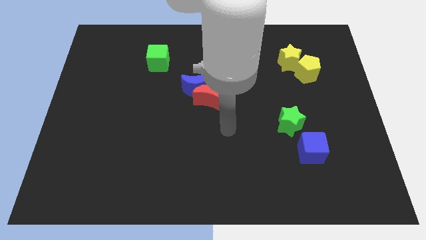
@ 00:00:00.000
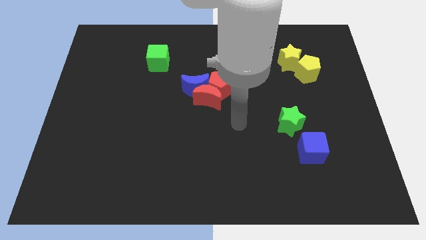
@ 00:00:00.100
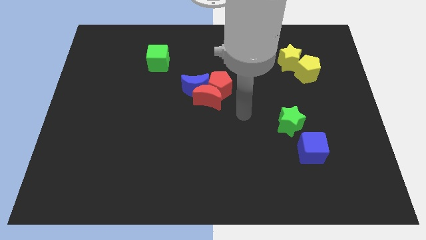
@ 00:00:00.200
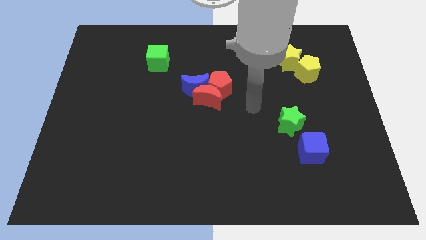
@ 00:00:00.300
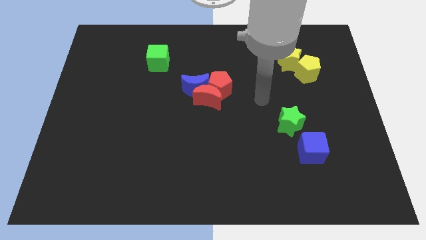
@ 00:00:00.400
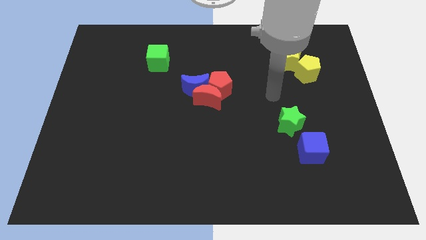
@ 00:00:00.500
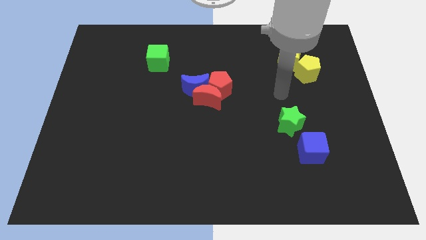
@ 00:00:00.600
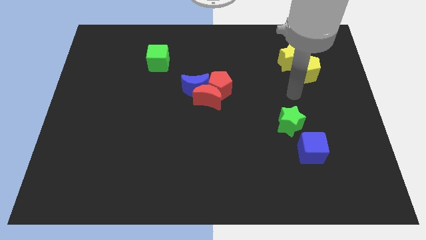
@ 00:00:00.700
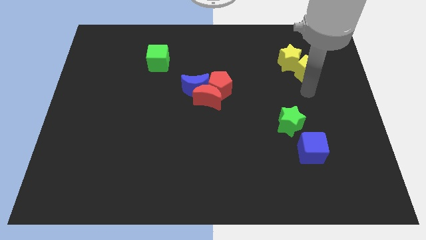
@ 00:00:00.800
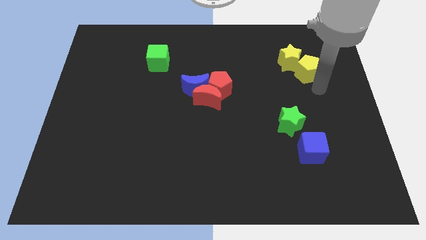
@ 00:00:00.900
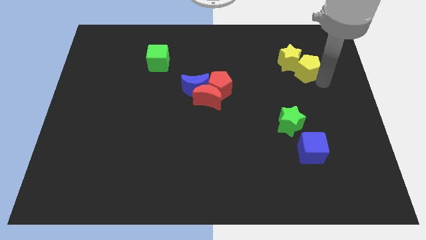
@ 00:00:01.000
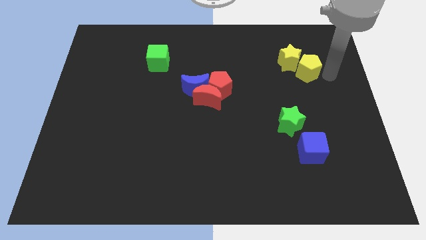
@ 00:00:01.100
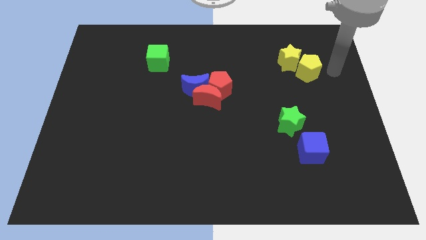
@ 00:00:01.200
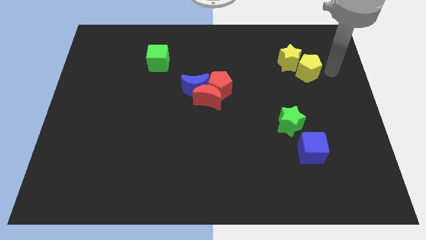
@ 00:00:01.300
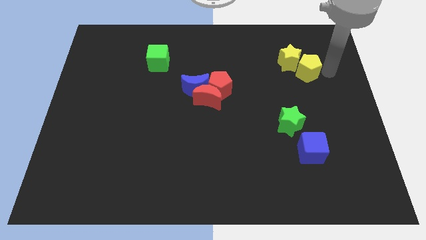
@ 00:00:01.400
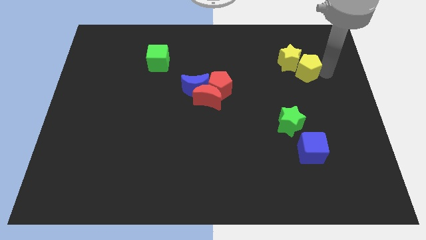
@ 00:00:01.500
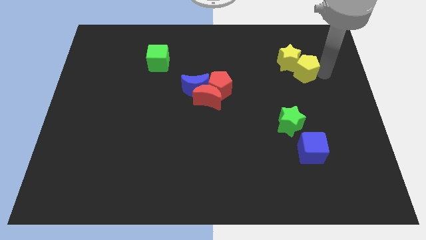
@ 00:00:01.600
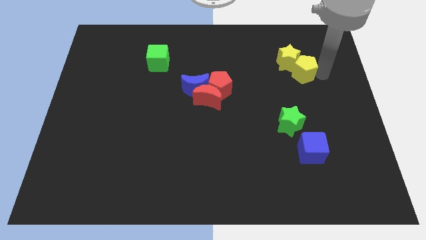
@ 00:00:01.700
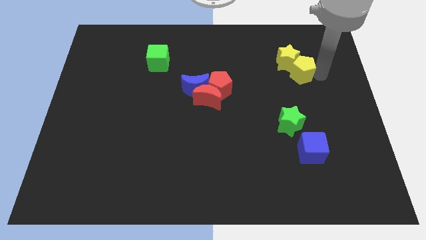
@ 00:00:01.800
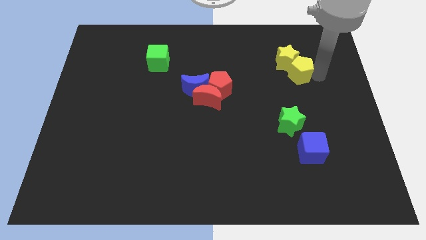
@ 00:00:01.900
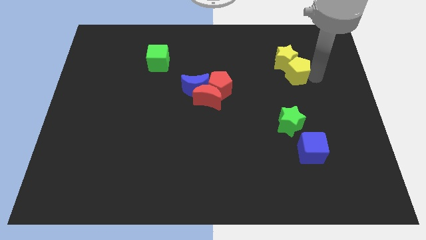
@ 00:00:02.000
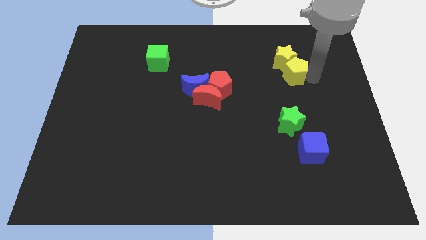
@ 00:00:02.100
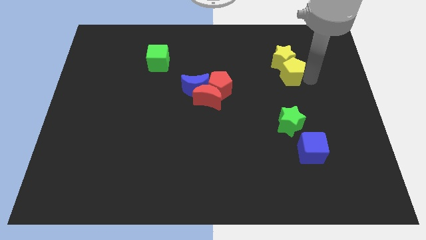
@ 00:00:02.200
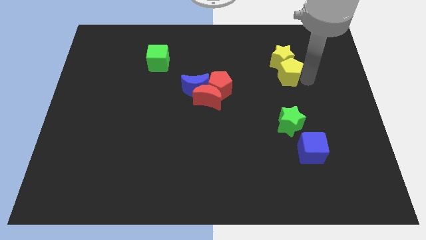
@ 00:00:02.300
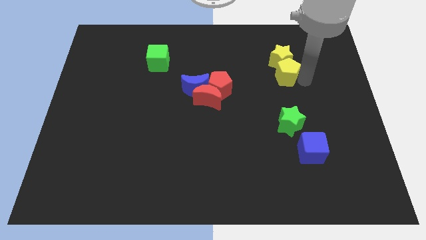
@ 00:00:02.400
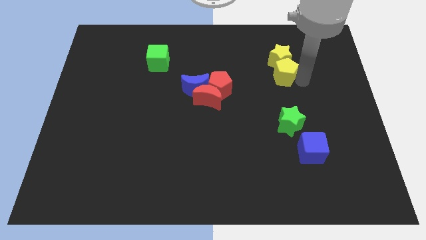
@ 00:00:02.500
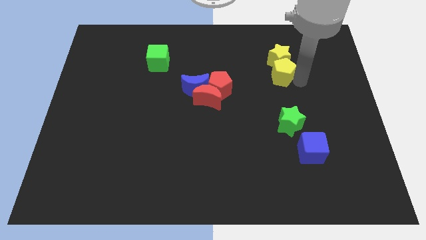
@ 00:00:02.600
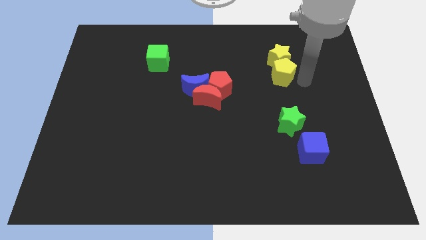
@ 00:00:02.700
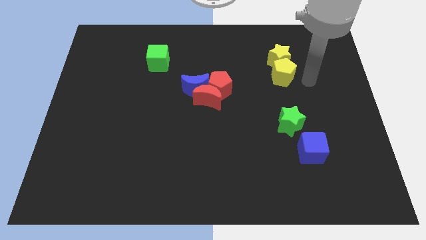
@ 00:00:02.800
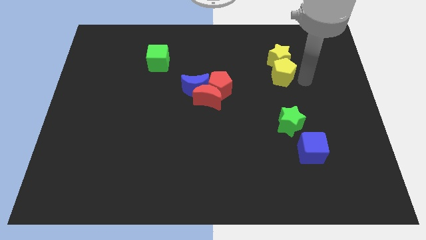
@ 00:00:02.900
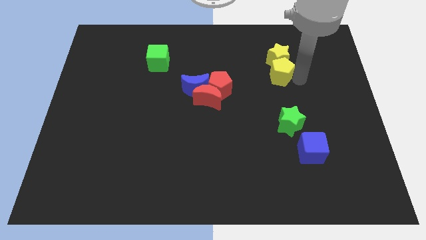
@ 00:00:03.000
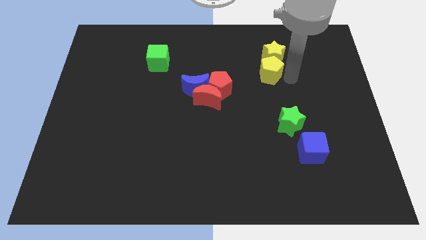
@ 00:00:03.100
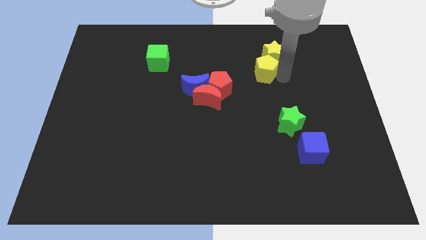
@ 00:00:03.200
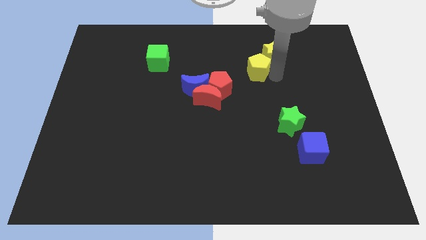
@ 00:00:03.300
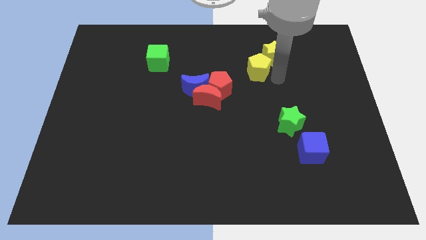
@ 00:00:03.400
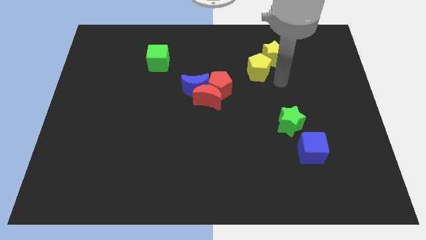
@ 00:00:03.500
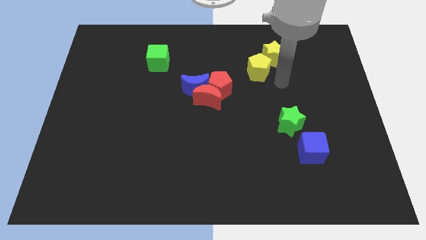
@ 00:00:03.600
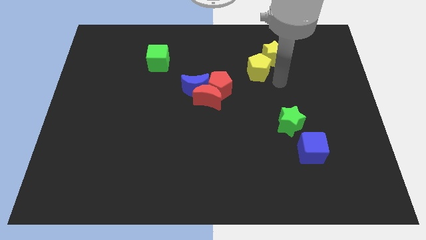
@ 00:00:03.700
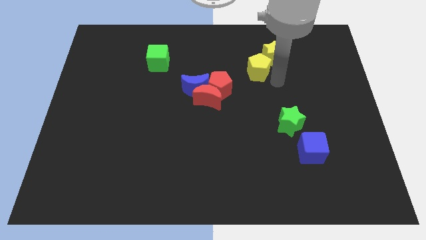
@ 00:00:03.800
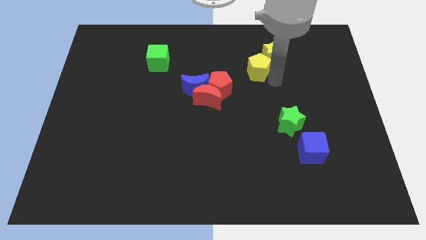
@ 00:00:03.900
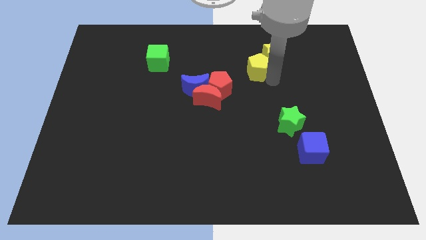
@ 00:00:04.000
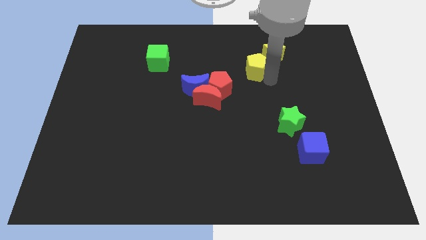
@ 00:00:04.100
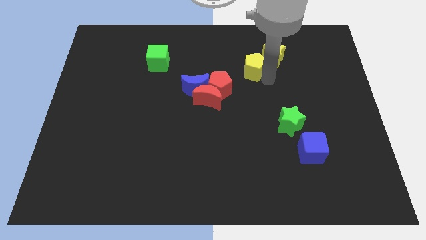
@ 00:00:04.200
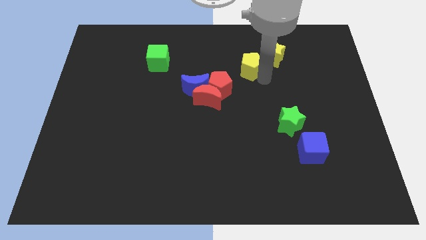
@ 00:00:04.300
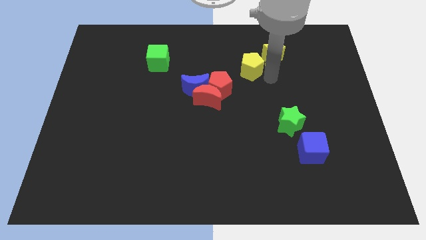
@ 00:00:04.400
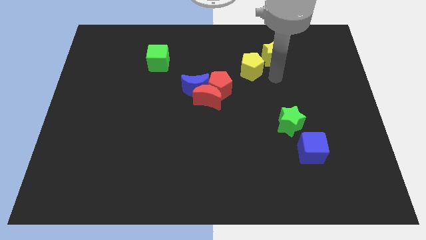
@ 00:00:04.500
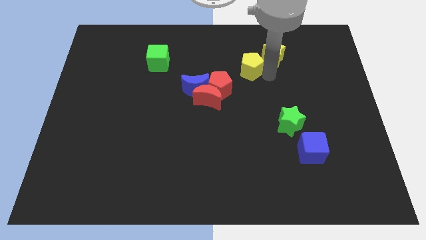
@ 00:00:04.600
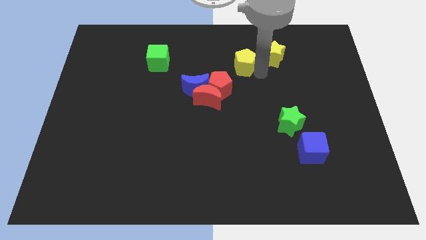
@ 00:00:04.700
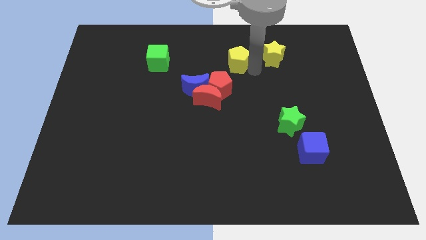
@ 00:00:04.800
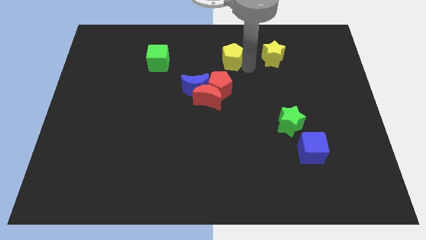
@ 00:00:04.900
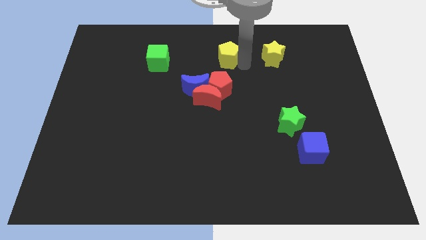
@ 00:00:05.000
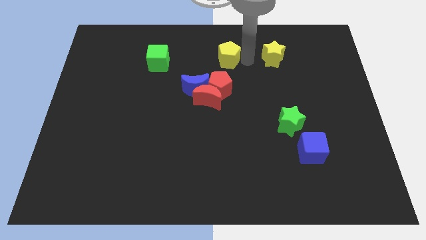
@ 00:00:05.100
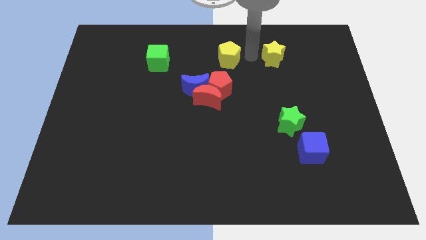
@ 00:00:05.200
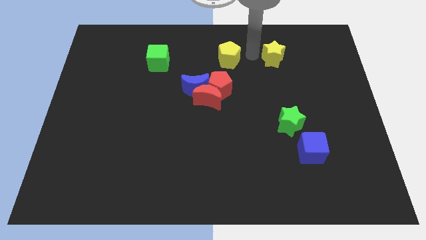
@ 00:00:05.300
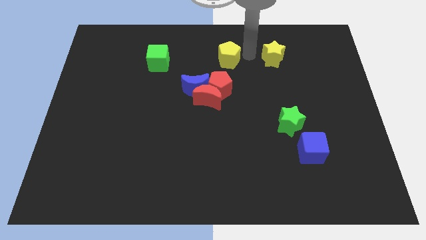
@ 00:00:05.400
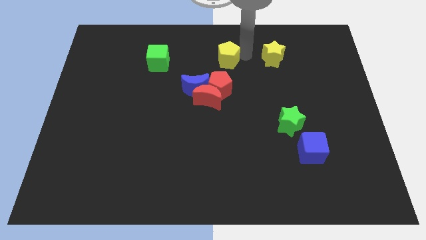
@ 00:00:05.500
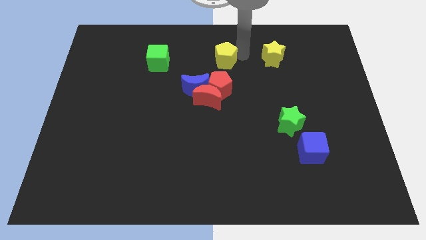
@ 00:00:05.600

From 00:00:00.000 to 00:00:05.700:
slide the yellow pentagon left

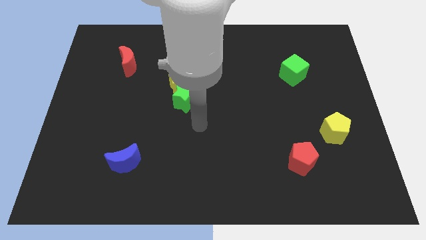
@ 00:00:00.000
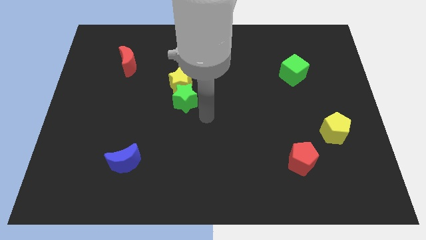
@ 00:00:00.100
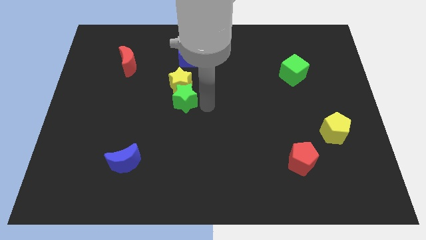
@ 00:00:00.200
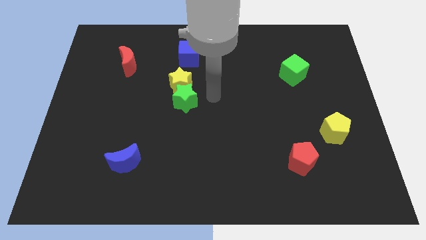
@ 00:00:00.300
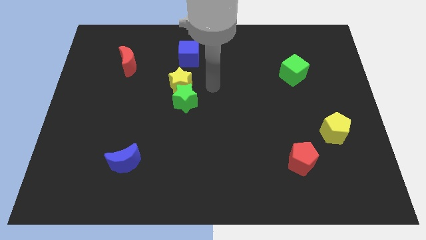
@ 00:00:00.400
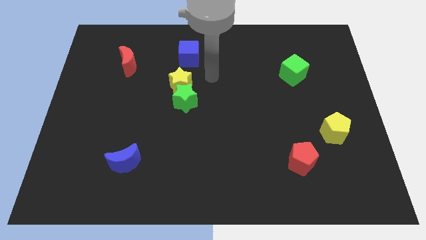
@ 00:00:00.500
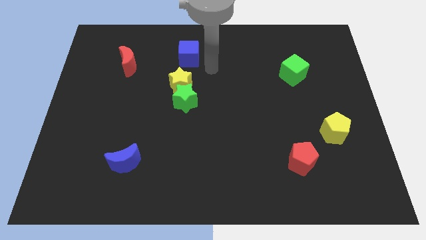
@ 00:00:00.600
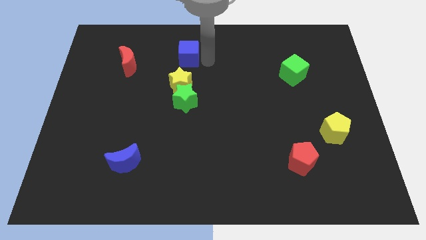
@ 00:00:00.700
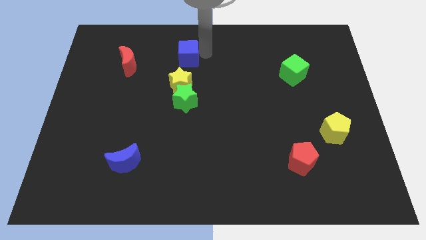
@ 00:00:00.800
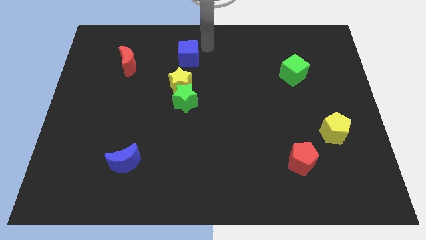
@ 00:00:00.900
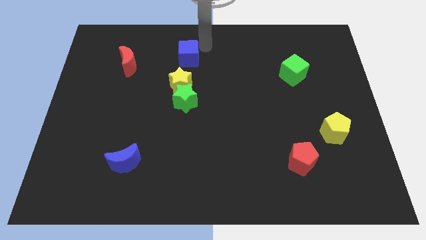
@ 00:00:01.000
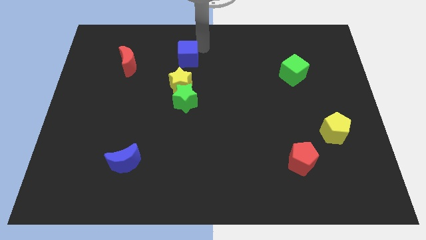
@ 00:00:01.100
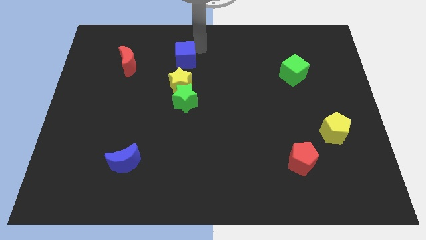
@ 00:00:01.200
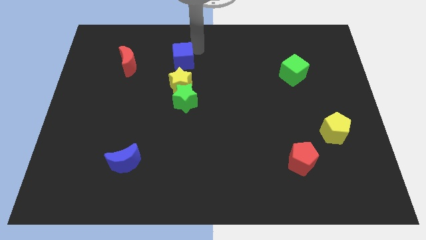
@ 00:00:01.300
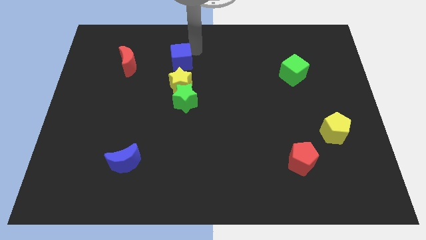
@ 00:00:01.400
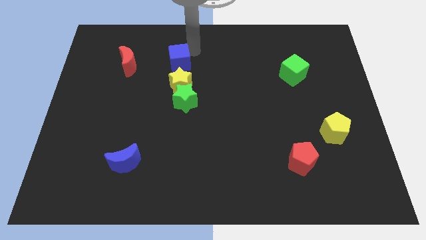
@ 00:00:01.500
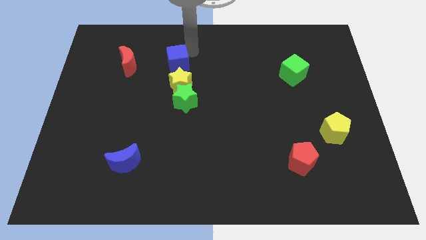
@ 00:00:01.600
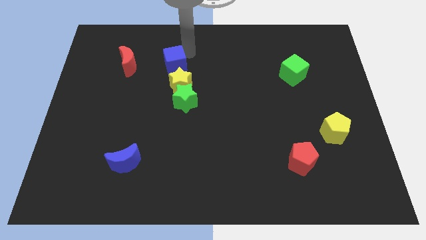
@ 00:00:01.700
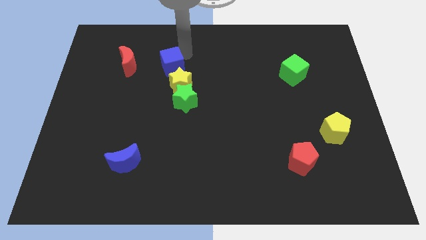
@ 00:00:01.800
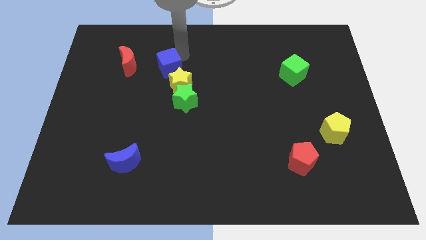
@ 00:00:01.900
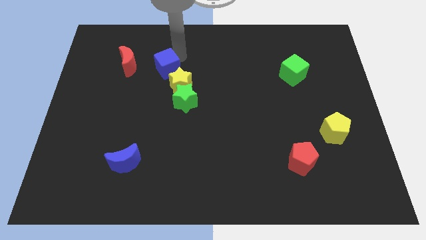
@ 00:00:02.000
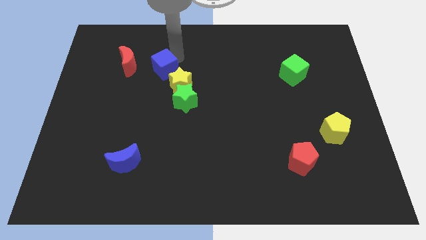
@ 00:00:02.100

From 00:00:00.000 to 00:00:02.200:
move the blue cube slightly diagonally downwards and left
